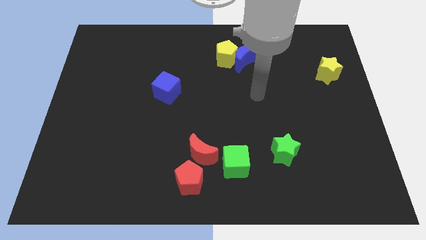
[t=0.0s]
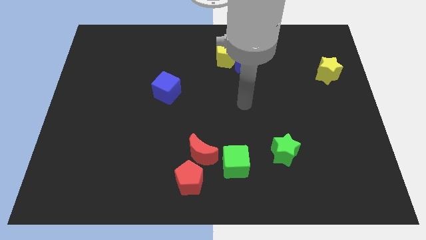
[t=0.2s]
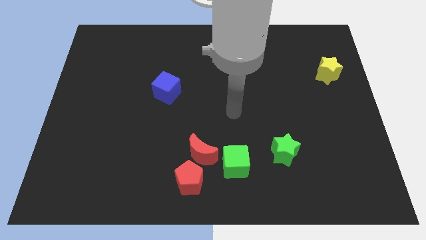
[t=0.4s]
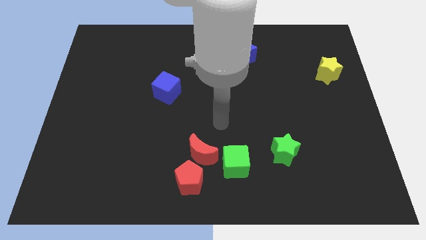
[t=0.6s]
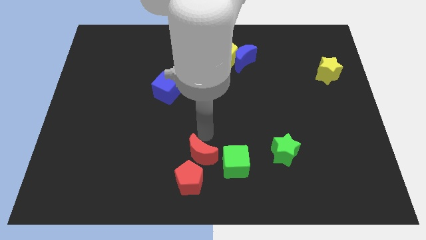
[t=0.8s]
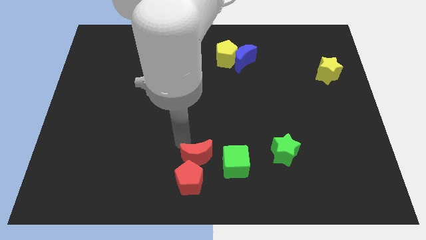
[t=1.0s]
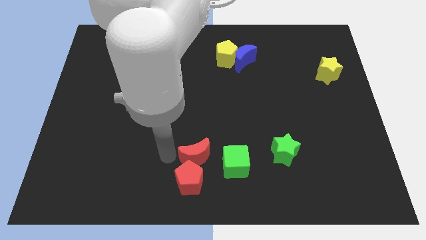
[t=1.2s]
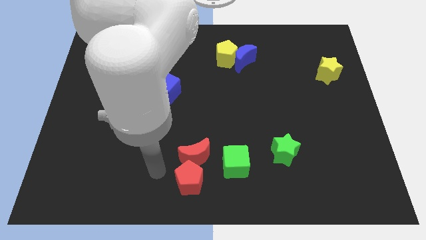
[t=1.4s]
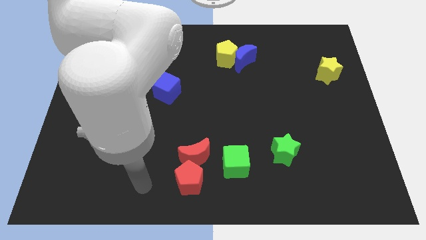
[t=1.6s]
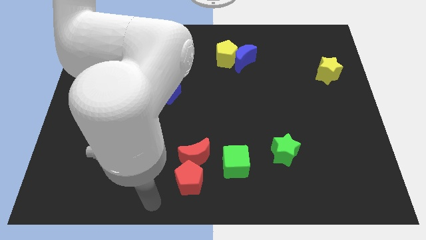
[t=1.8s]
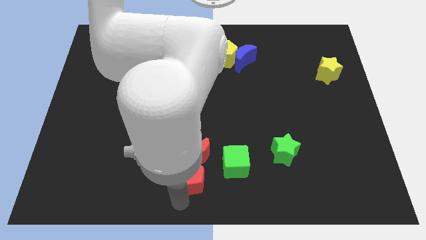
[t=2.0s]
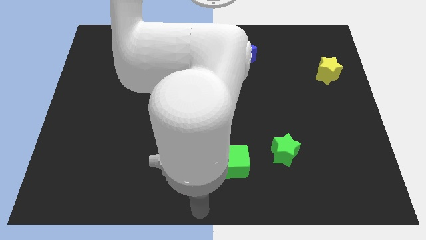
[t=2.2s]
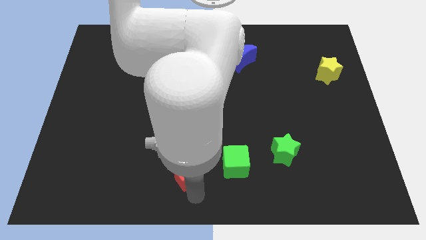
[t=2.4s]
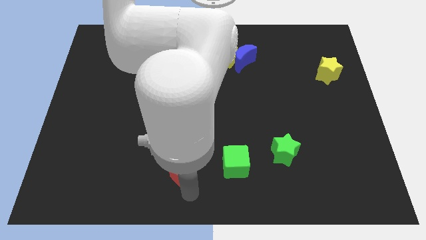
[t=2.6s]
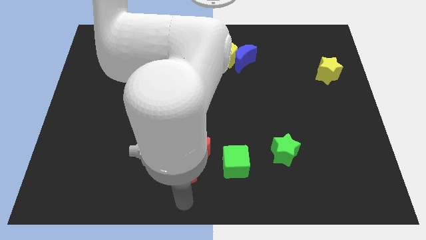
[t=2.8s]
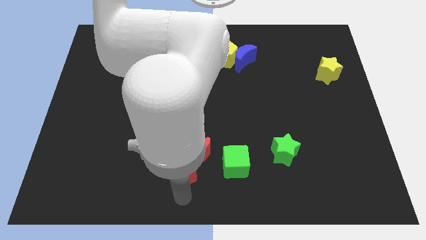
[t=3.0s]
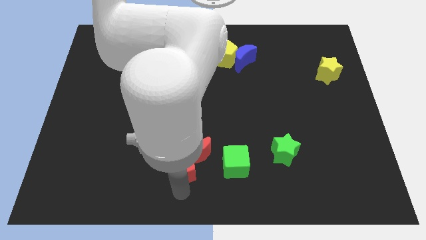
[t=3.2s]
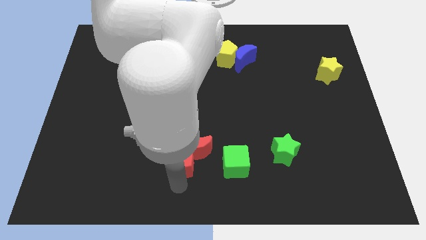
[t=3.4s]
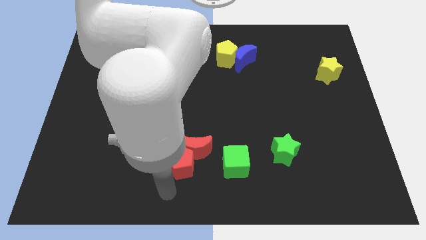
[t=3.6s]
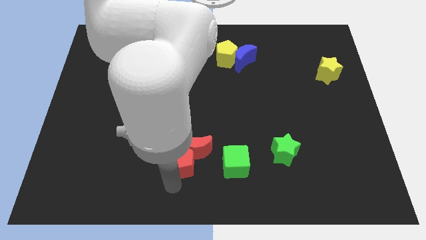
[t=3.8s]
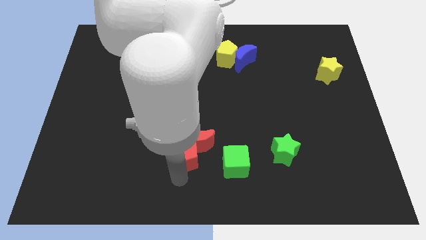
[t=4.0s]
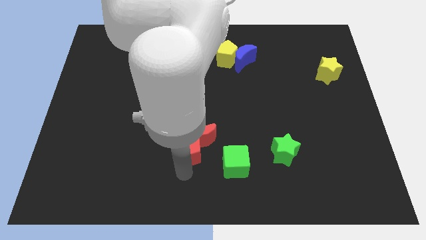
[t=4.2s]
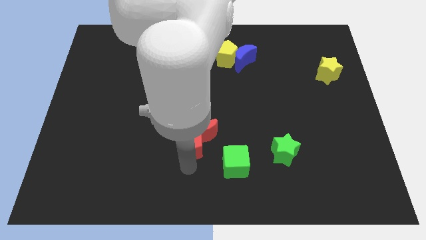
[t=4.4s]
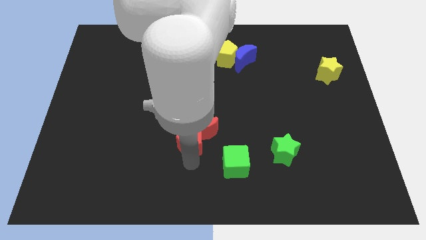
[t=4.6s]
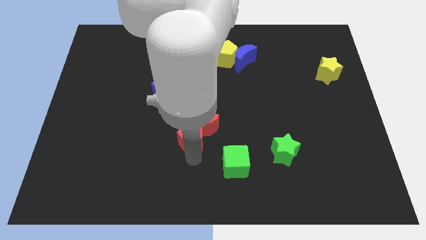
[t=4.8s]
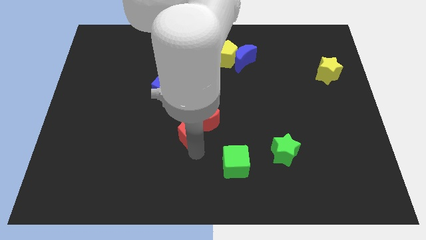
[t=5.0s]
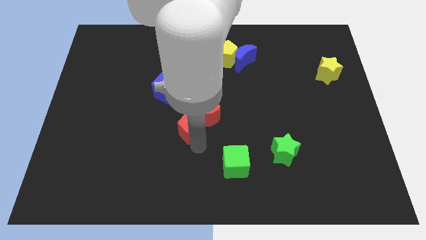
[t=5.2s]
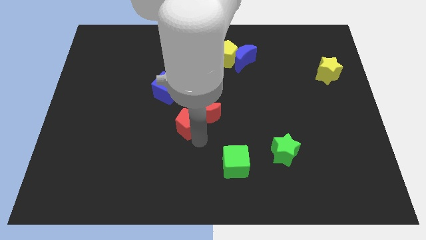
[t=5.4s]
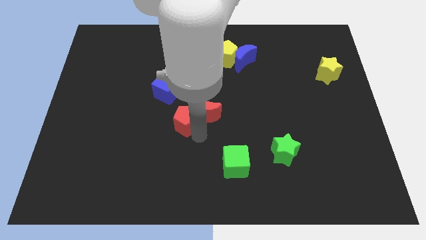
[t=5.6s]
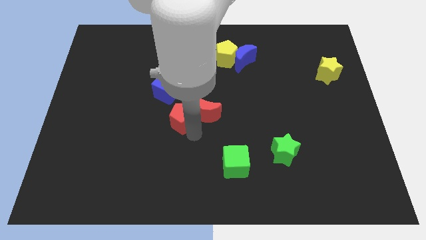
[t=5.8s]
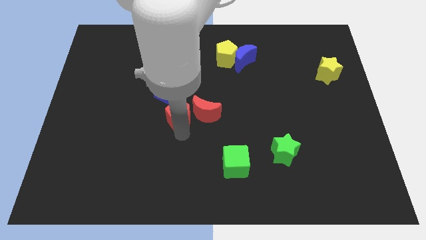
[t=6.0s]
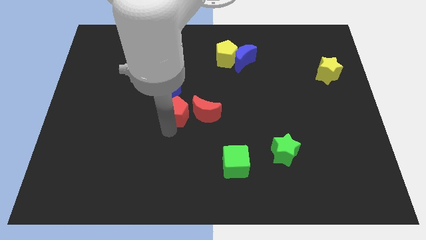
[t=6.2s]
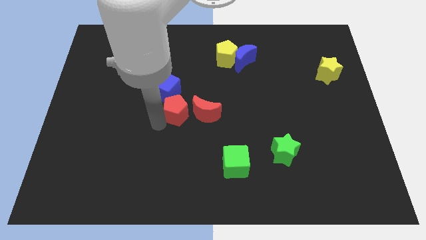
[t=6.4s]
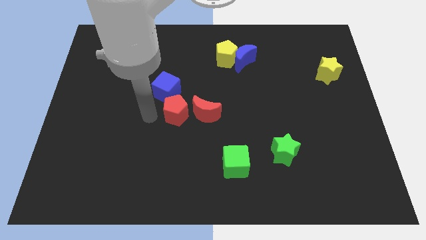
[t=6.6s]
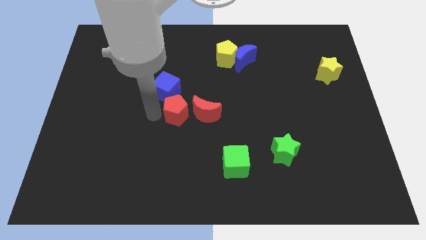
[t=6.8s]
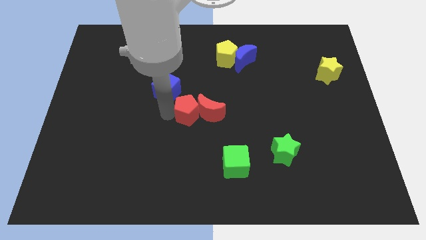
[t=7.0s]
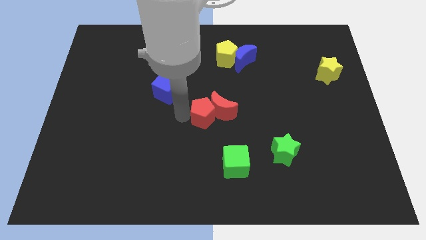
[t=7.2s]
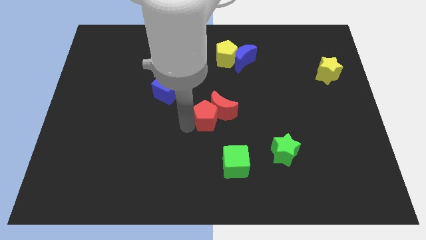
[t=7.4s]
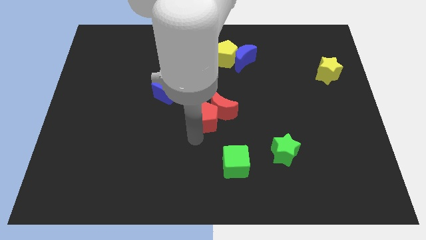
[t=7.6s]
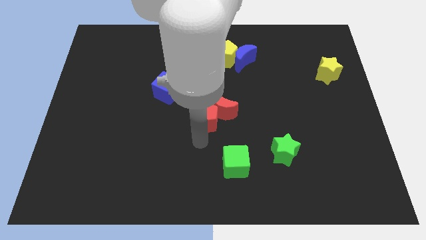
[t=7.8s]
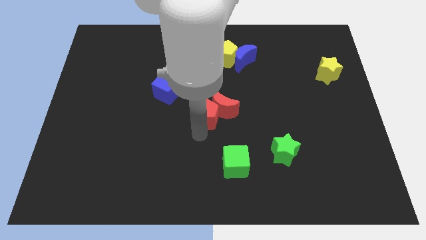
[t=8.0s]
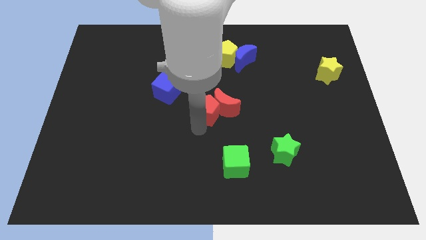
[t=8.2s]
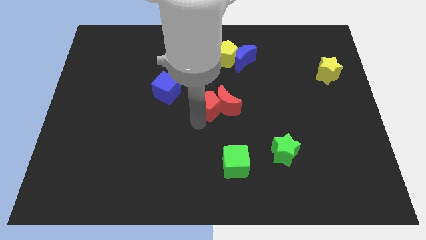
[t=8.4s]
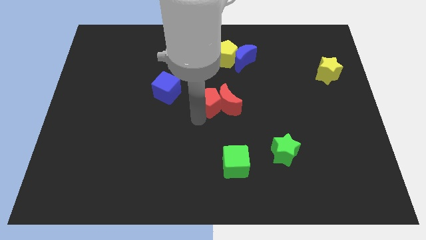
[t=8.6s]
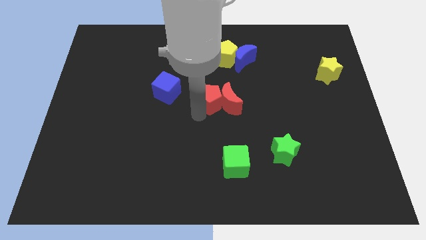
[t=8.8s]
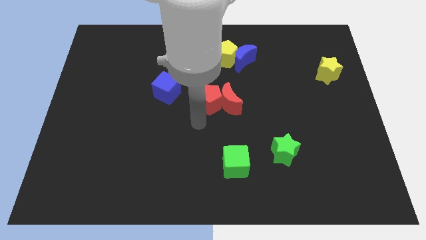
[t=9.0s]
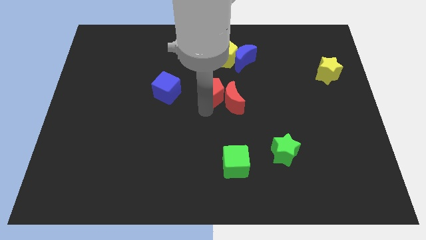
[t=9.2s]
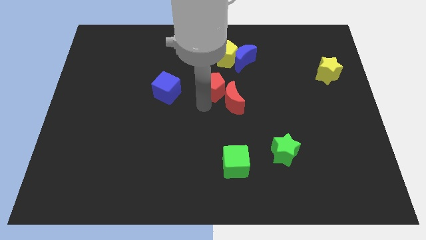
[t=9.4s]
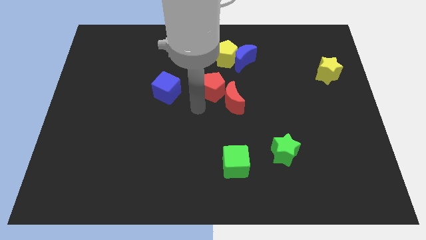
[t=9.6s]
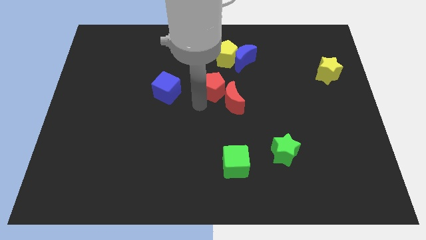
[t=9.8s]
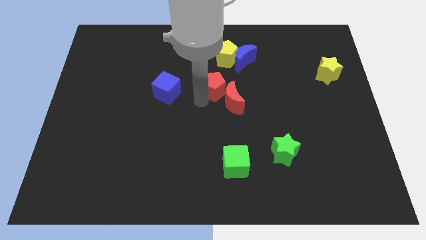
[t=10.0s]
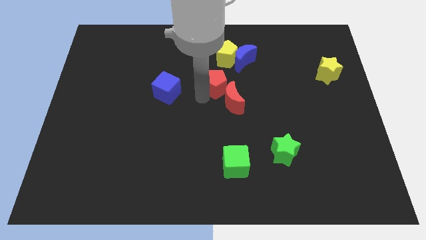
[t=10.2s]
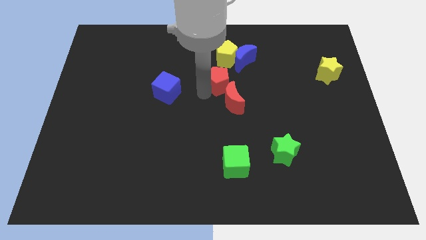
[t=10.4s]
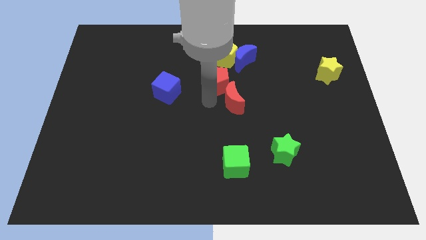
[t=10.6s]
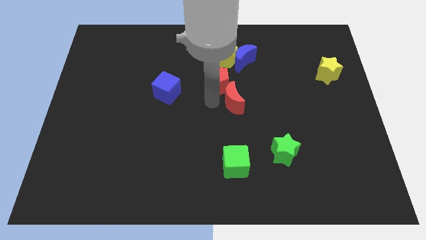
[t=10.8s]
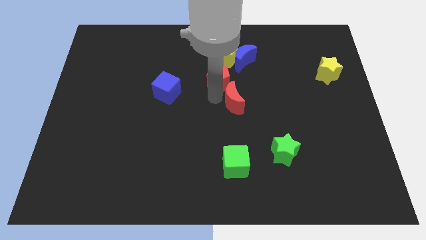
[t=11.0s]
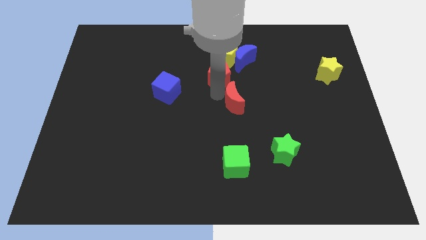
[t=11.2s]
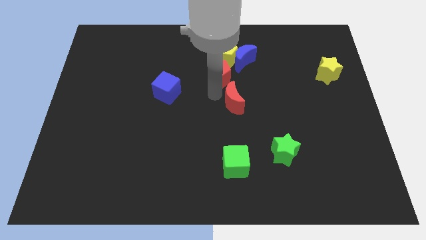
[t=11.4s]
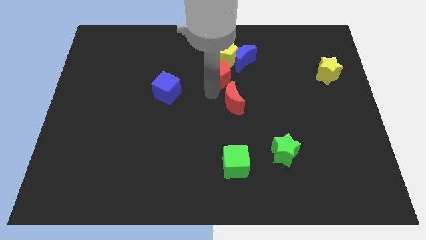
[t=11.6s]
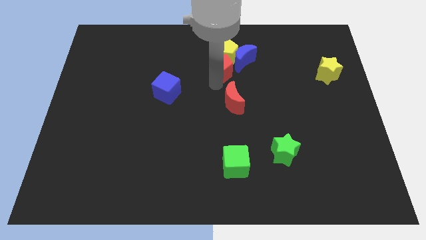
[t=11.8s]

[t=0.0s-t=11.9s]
put the red pentagon to the yellow pentagon

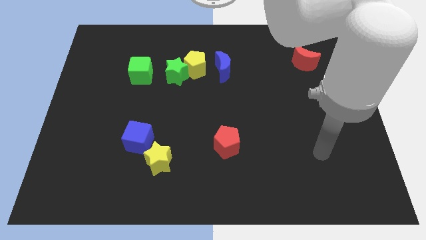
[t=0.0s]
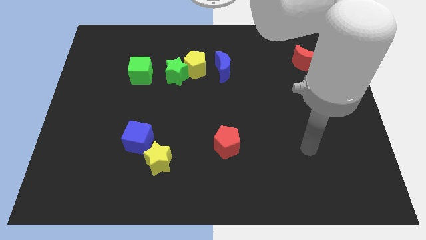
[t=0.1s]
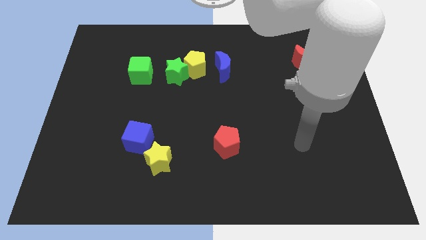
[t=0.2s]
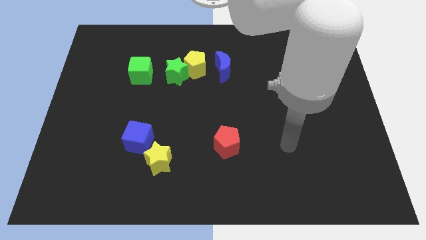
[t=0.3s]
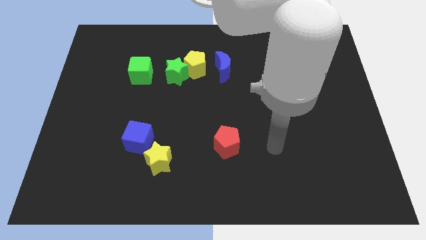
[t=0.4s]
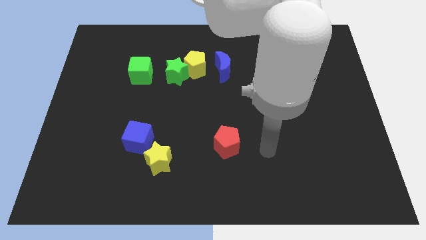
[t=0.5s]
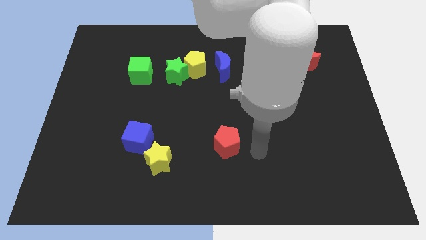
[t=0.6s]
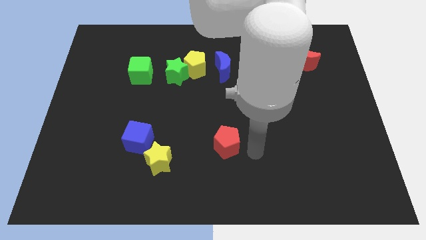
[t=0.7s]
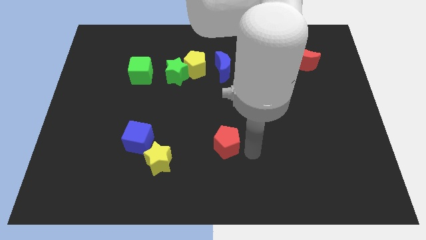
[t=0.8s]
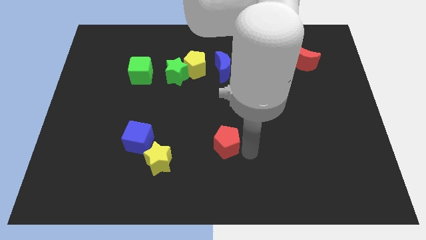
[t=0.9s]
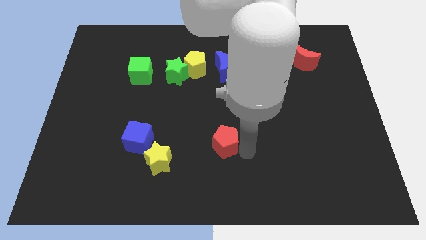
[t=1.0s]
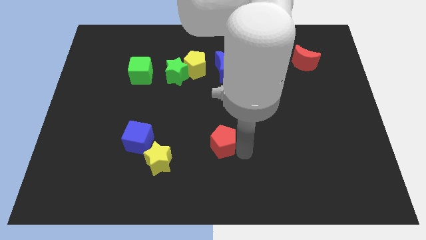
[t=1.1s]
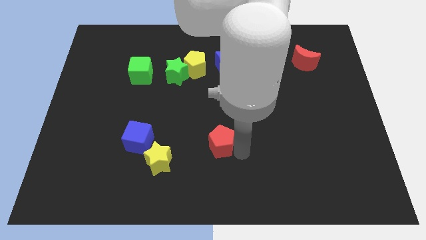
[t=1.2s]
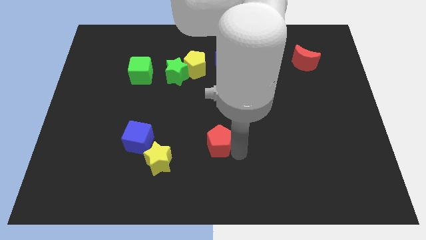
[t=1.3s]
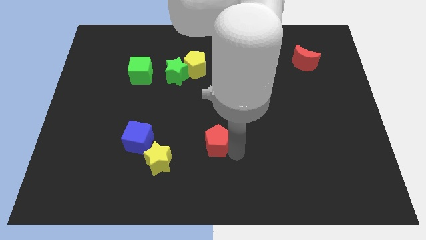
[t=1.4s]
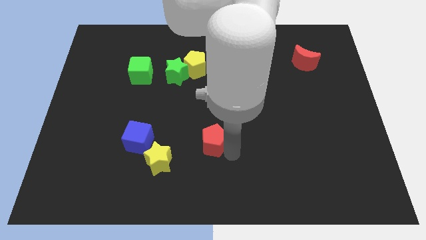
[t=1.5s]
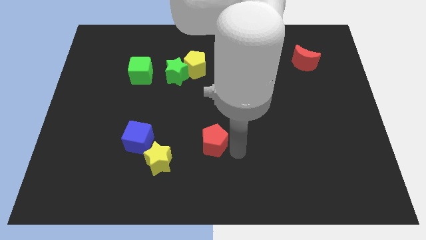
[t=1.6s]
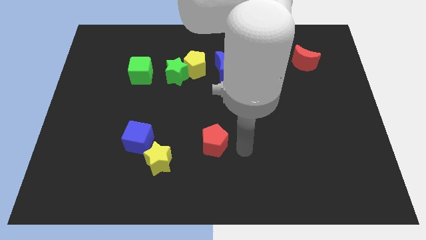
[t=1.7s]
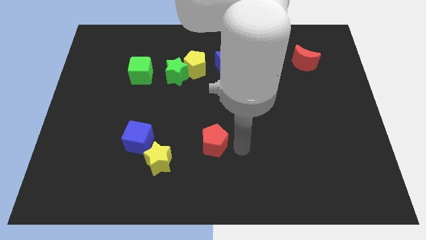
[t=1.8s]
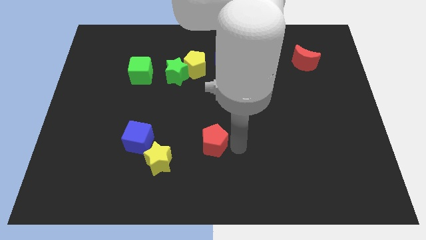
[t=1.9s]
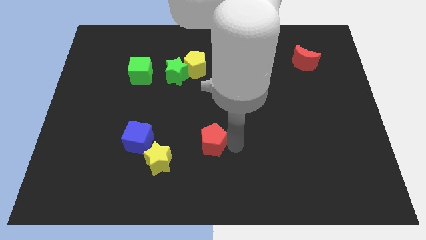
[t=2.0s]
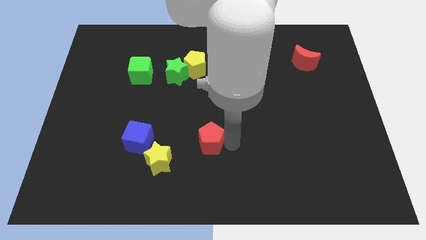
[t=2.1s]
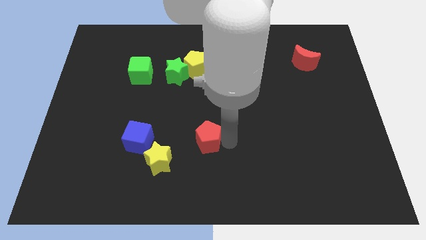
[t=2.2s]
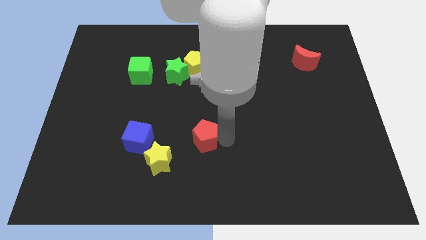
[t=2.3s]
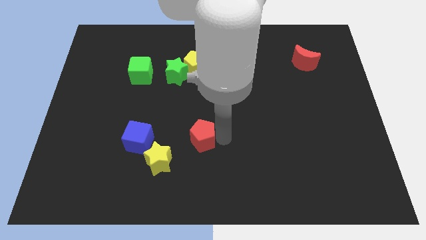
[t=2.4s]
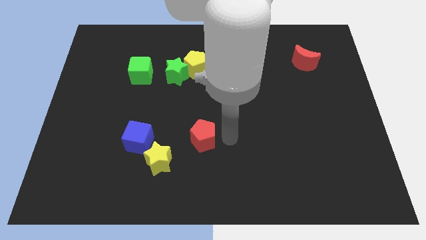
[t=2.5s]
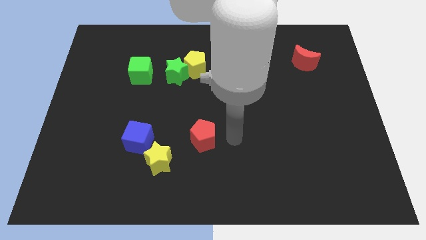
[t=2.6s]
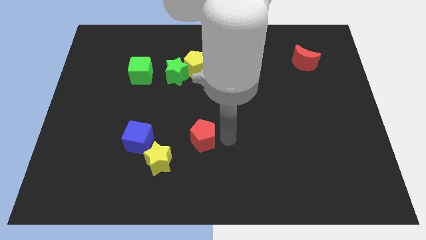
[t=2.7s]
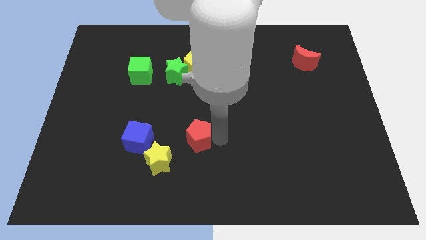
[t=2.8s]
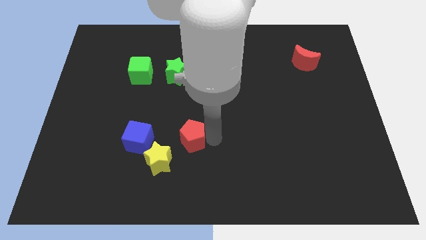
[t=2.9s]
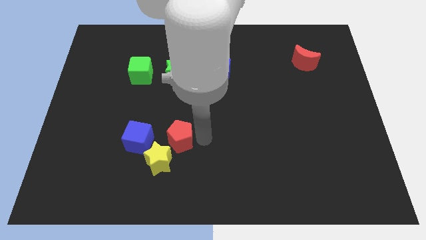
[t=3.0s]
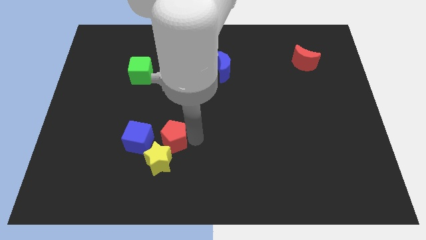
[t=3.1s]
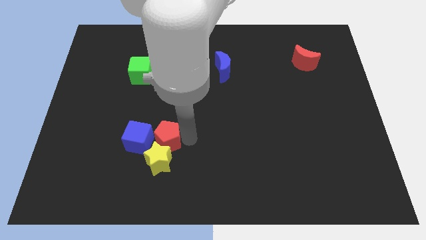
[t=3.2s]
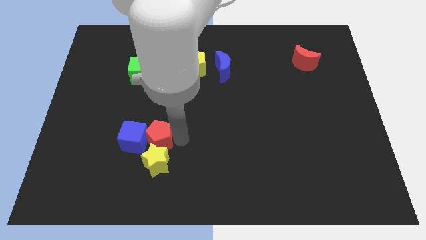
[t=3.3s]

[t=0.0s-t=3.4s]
put the red pentagon to the blue cube
